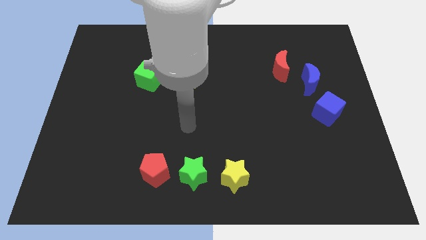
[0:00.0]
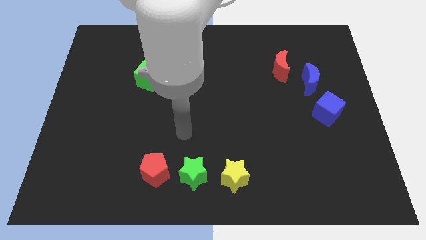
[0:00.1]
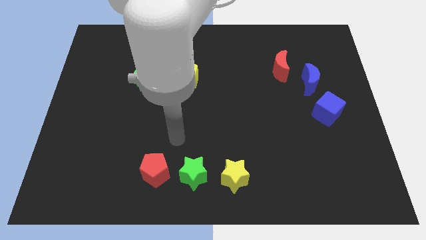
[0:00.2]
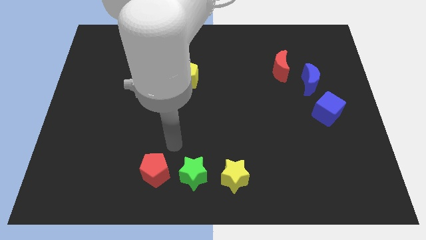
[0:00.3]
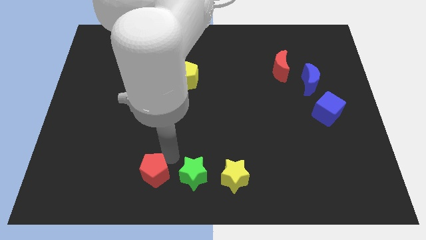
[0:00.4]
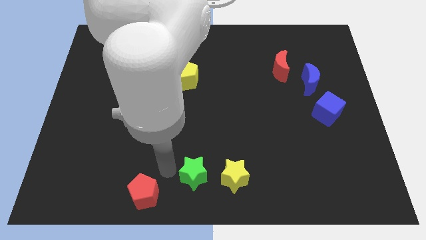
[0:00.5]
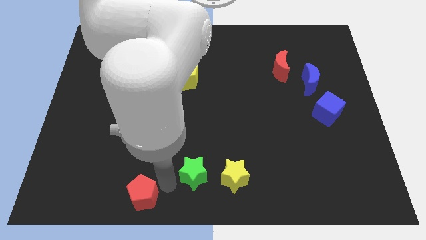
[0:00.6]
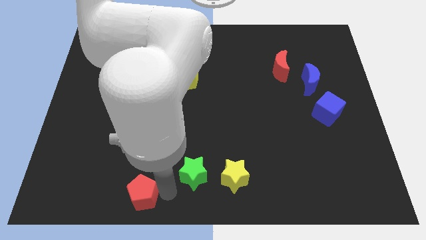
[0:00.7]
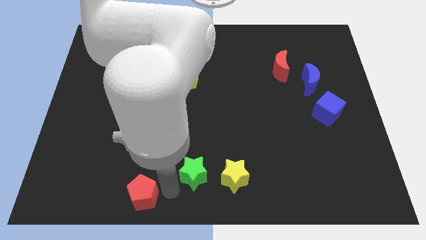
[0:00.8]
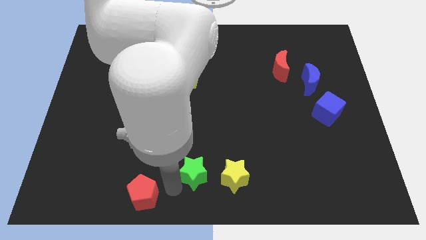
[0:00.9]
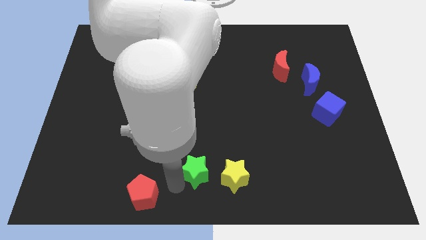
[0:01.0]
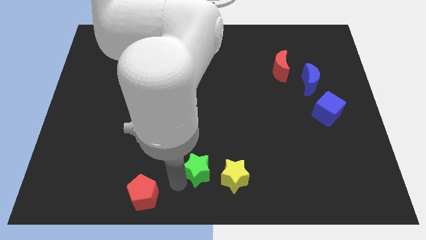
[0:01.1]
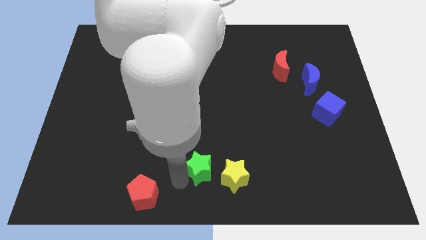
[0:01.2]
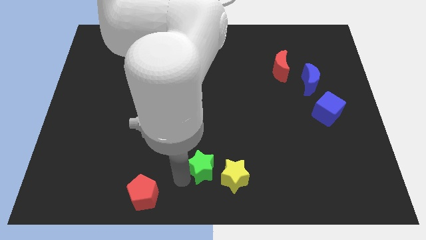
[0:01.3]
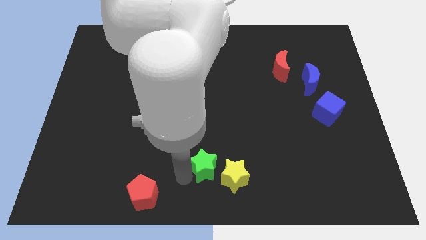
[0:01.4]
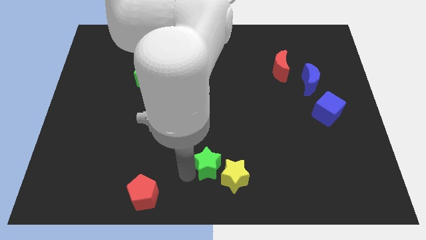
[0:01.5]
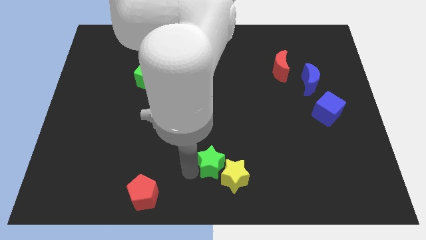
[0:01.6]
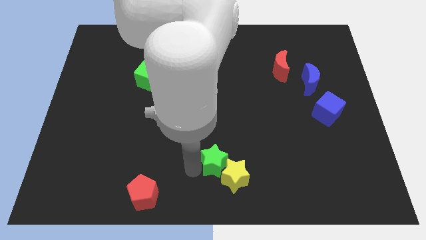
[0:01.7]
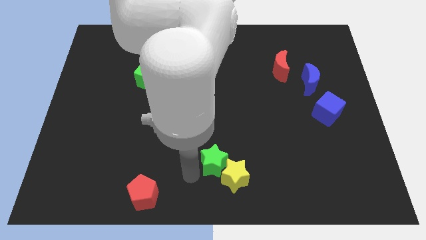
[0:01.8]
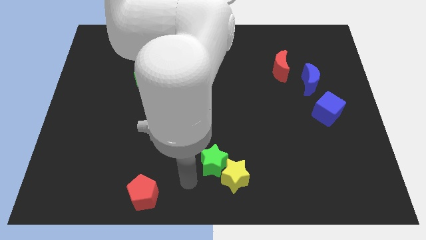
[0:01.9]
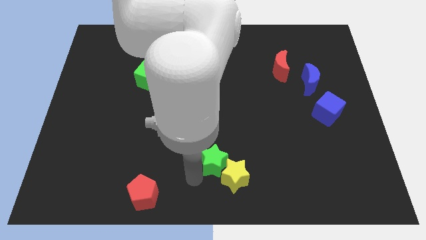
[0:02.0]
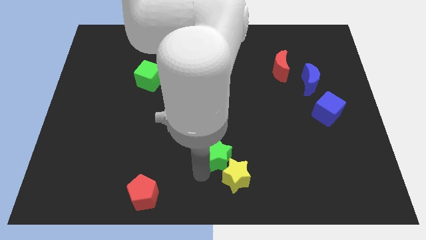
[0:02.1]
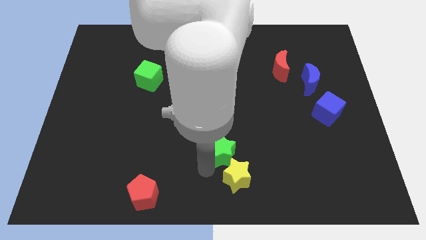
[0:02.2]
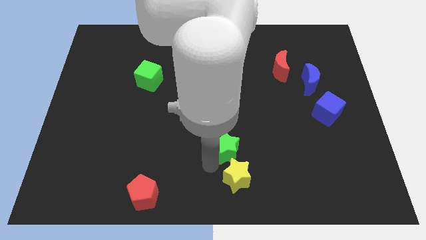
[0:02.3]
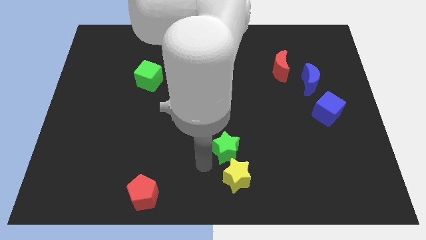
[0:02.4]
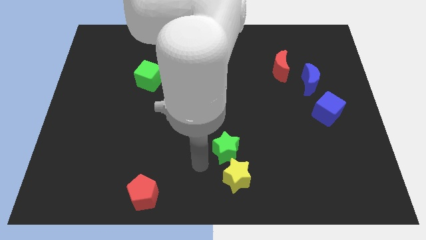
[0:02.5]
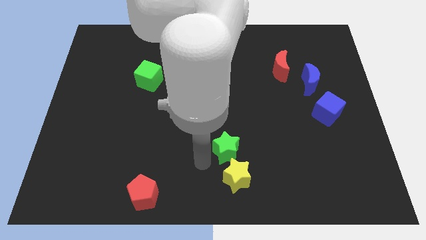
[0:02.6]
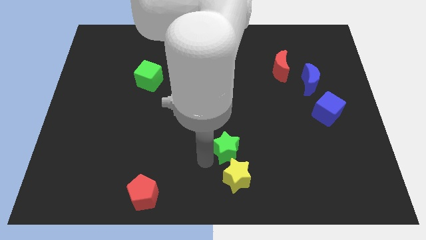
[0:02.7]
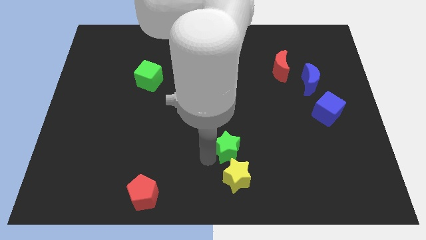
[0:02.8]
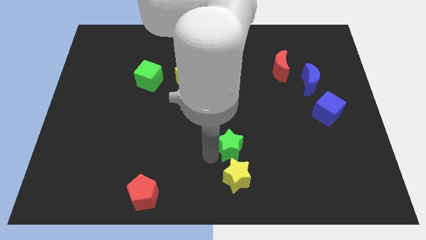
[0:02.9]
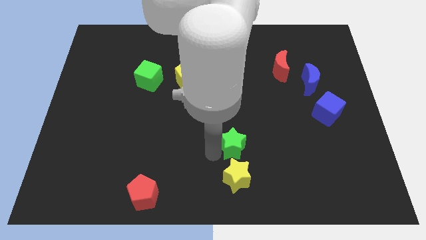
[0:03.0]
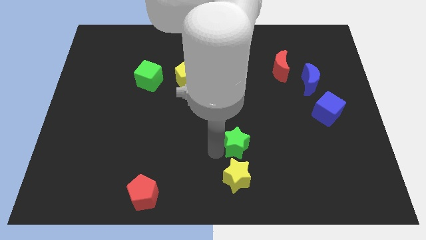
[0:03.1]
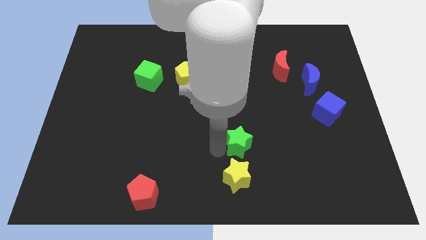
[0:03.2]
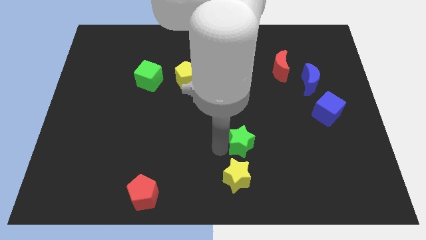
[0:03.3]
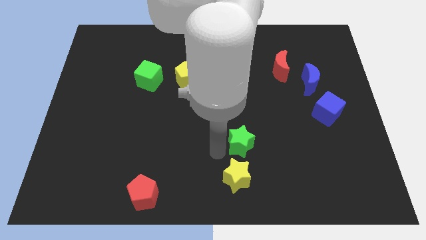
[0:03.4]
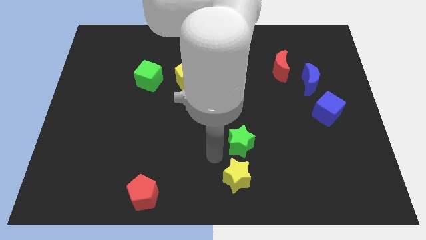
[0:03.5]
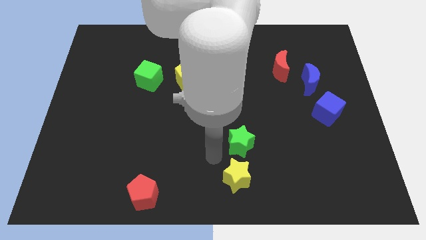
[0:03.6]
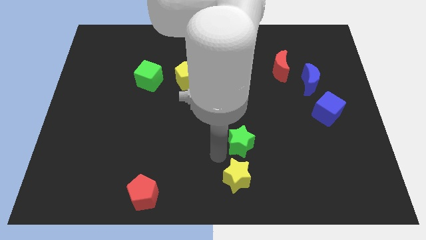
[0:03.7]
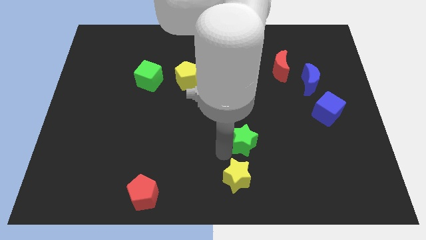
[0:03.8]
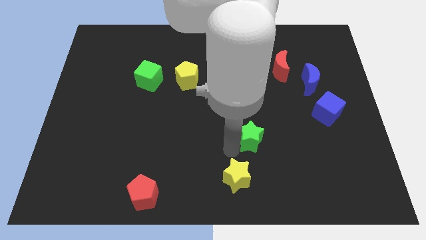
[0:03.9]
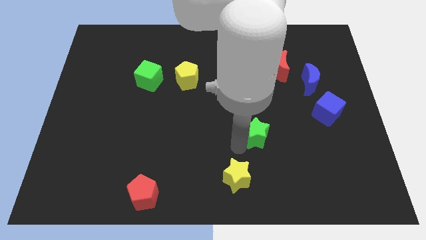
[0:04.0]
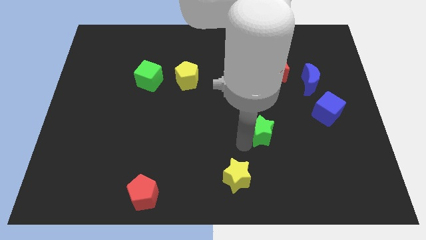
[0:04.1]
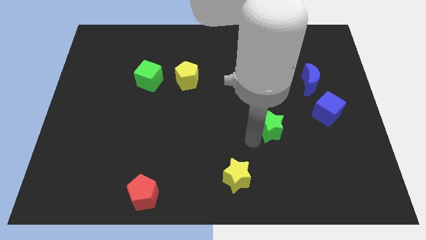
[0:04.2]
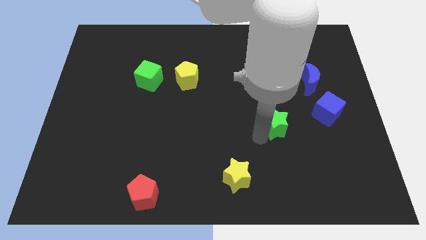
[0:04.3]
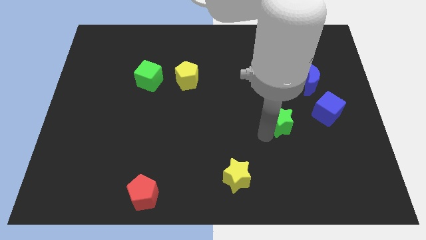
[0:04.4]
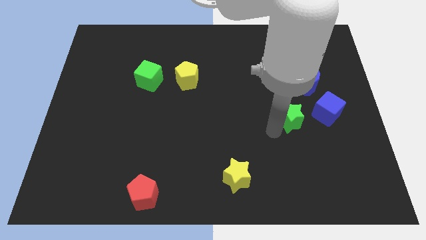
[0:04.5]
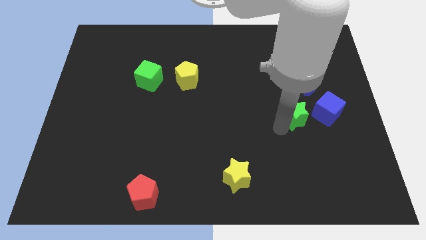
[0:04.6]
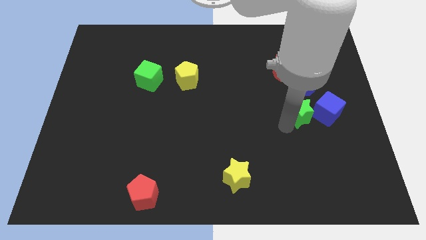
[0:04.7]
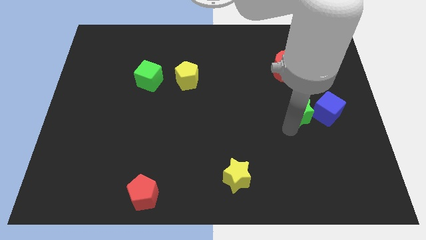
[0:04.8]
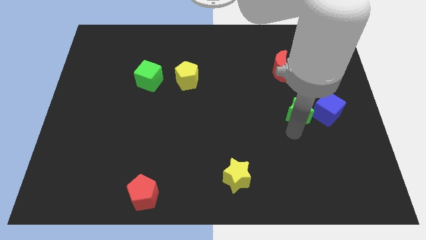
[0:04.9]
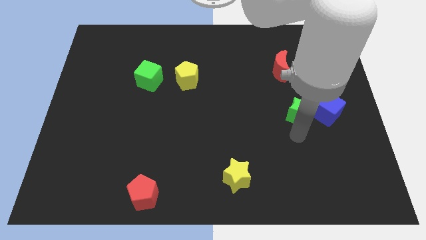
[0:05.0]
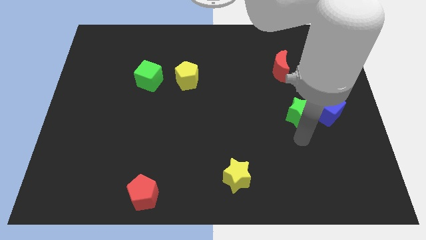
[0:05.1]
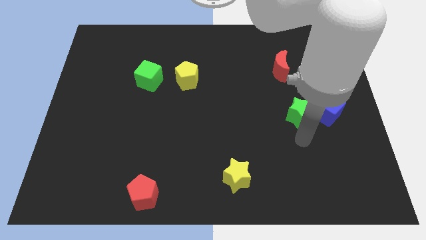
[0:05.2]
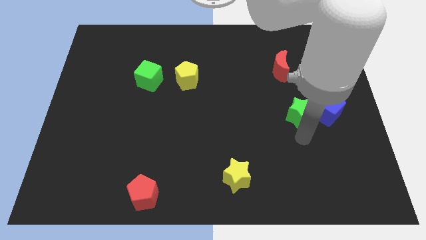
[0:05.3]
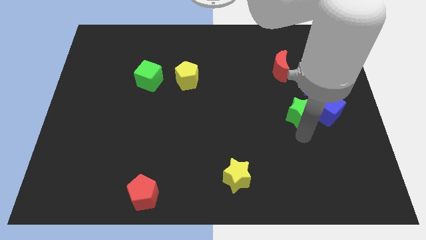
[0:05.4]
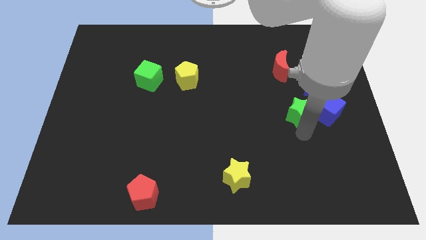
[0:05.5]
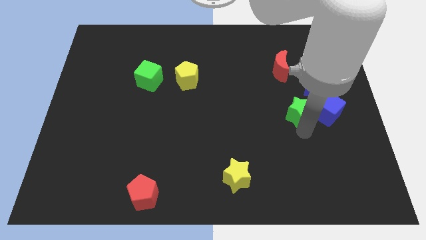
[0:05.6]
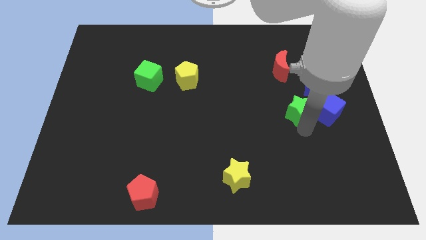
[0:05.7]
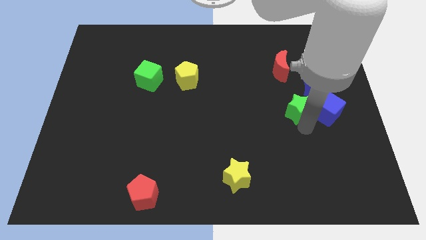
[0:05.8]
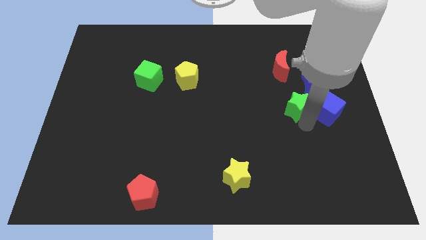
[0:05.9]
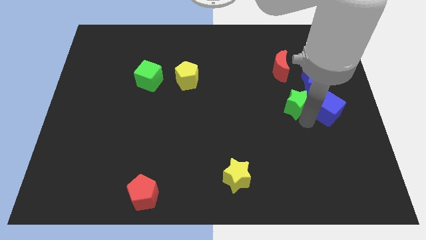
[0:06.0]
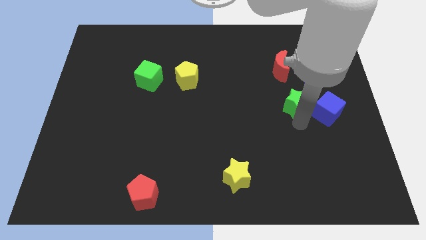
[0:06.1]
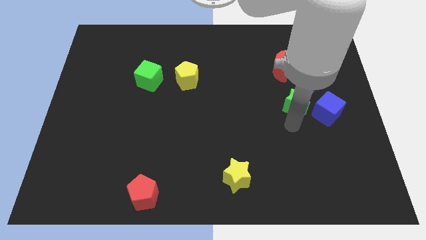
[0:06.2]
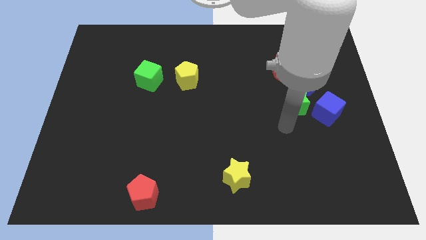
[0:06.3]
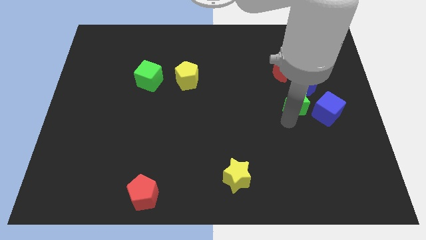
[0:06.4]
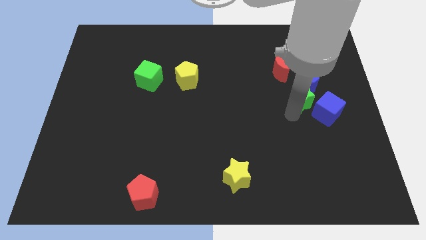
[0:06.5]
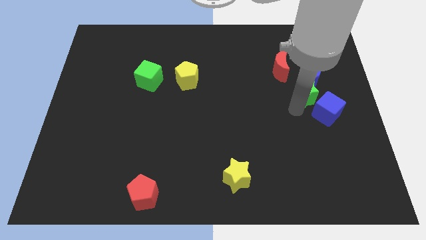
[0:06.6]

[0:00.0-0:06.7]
slide the green star to the blue moon

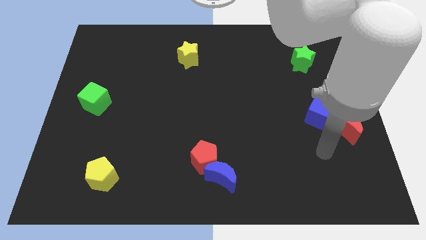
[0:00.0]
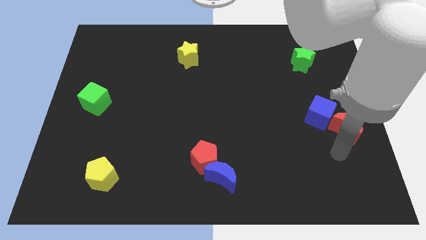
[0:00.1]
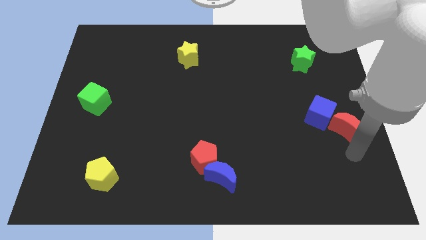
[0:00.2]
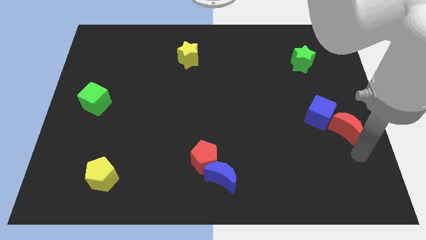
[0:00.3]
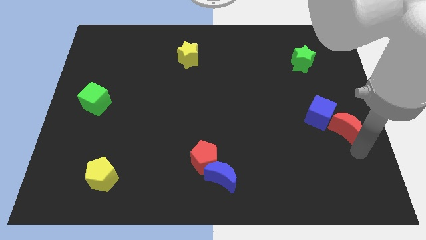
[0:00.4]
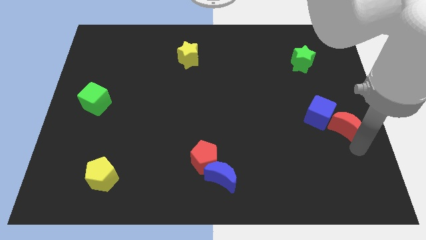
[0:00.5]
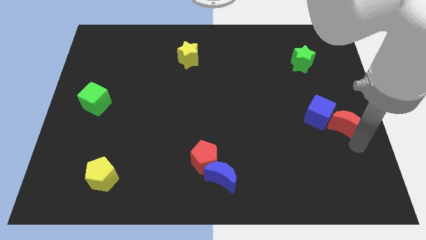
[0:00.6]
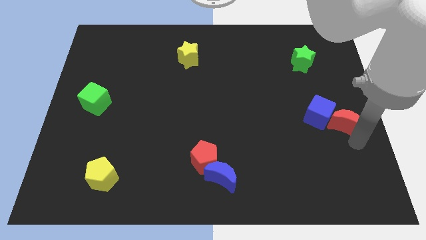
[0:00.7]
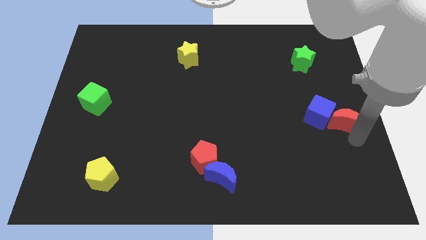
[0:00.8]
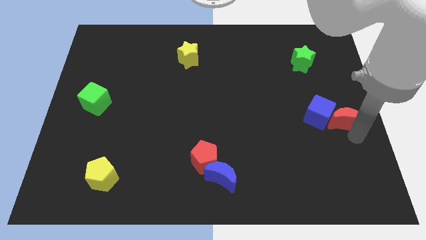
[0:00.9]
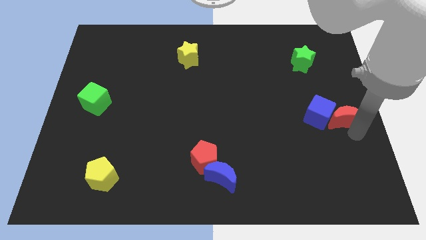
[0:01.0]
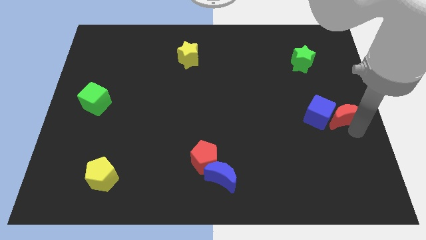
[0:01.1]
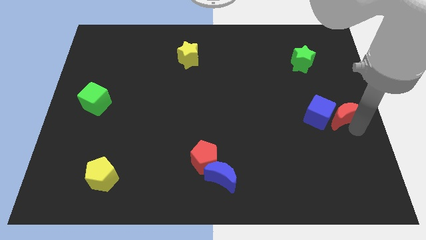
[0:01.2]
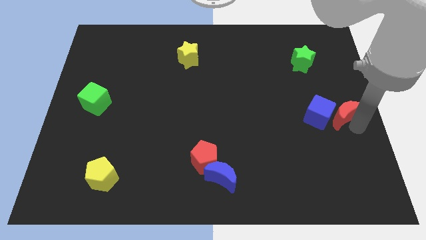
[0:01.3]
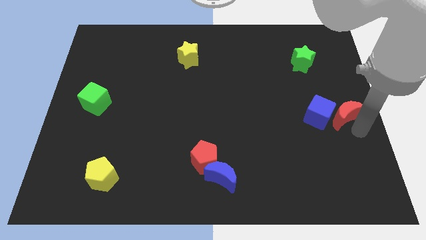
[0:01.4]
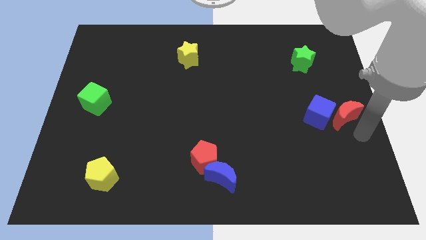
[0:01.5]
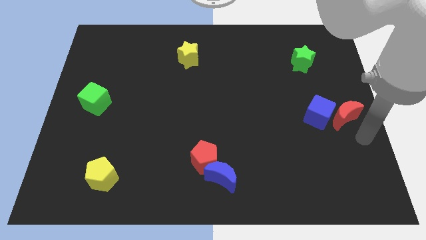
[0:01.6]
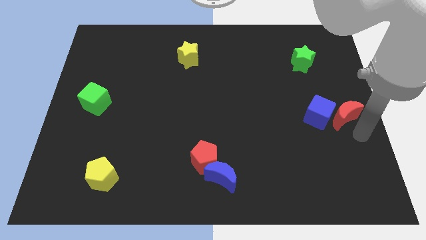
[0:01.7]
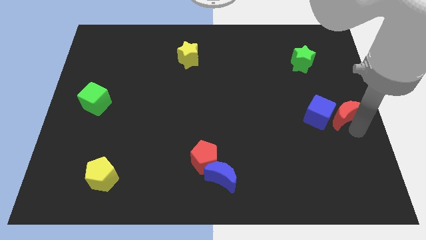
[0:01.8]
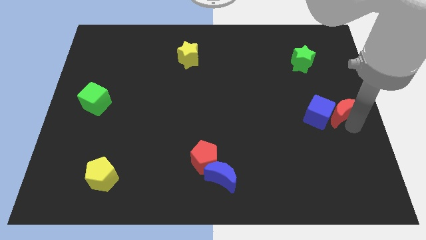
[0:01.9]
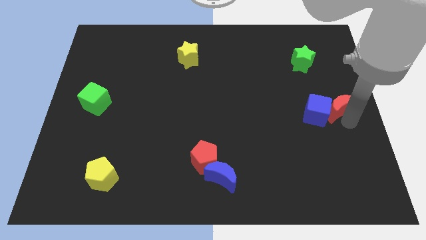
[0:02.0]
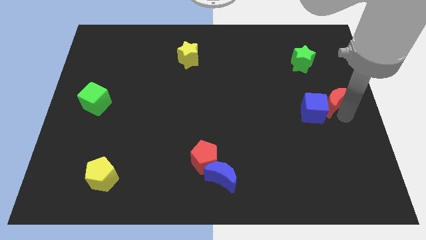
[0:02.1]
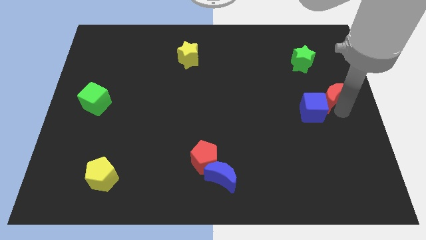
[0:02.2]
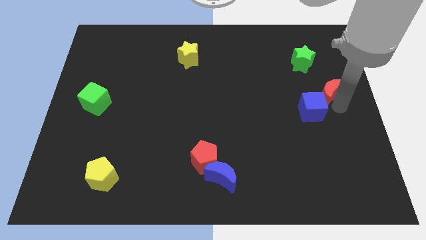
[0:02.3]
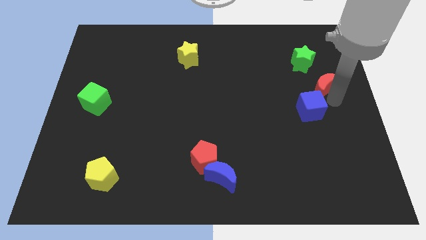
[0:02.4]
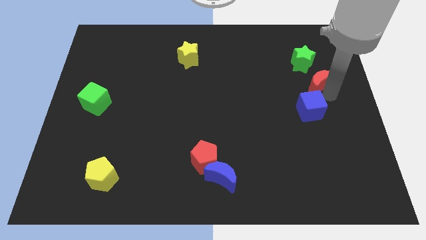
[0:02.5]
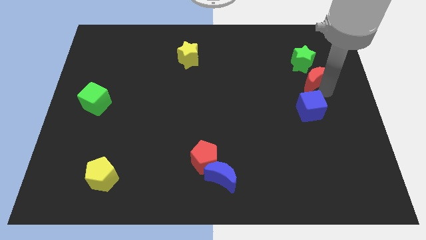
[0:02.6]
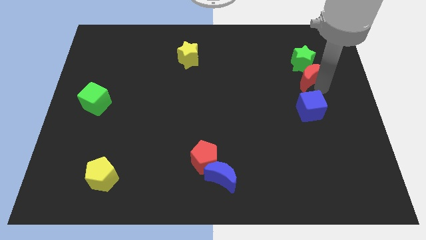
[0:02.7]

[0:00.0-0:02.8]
slide the red moon towards the green star
